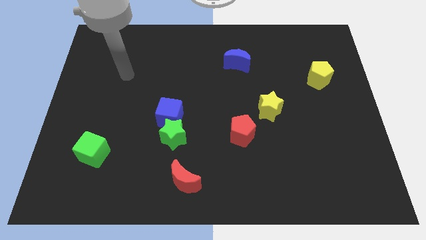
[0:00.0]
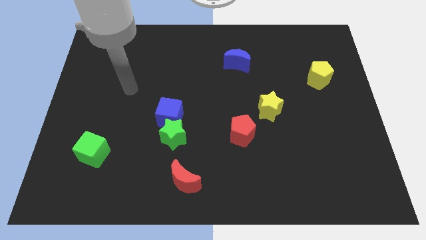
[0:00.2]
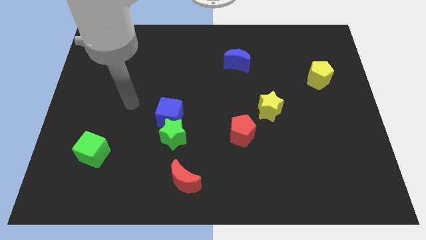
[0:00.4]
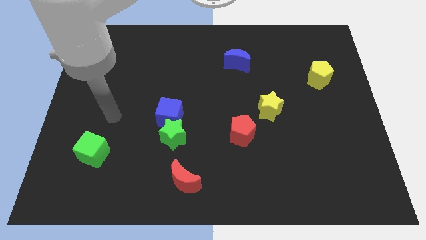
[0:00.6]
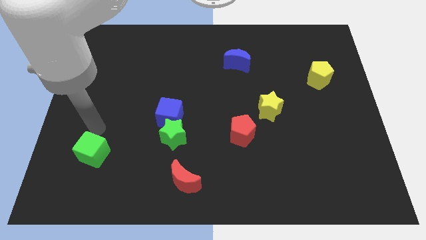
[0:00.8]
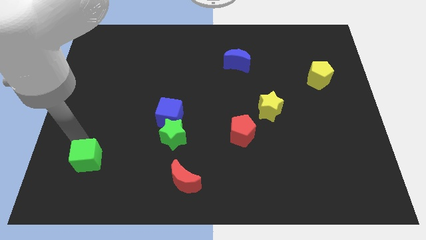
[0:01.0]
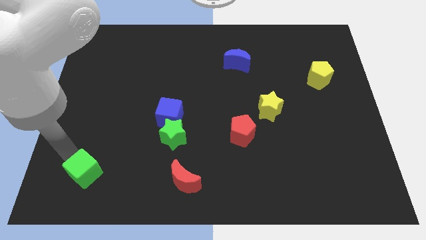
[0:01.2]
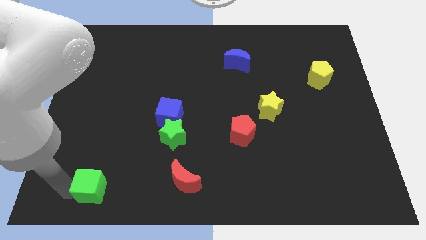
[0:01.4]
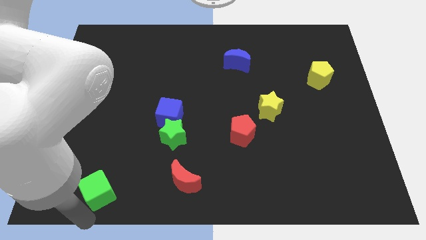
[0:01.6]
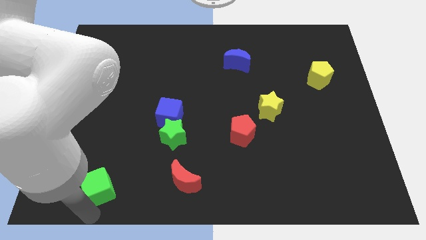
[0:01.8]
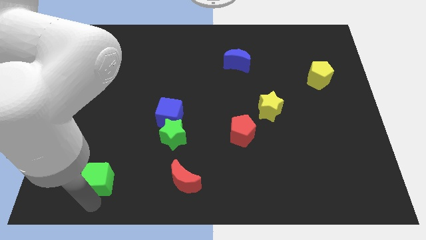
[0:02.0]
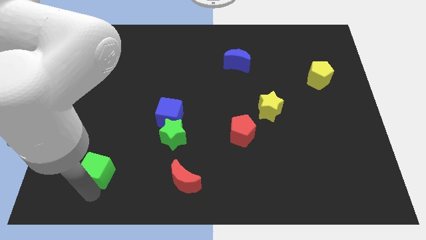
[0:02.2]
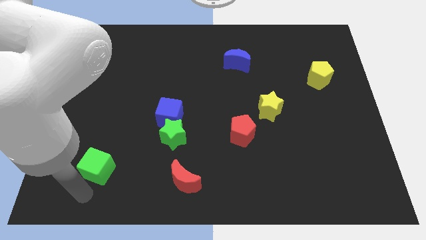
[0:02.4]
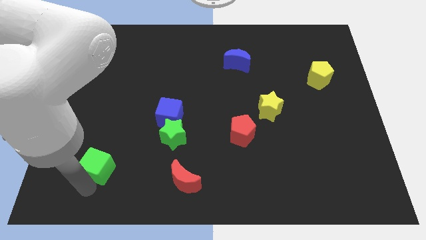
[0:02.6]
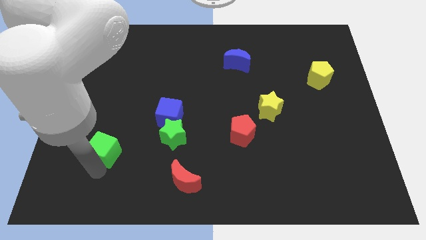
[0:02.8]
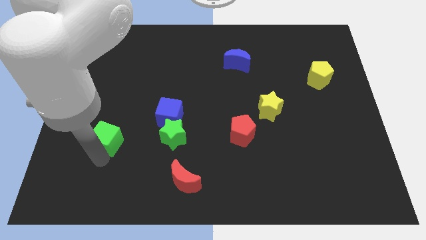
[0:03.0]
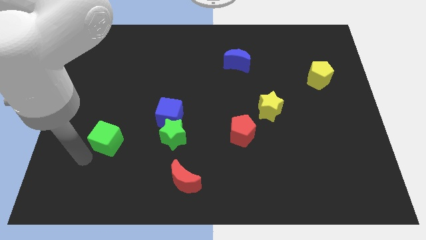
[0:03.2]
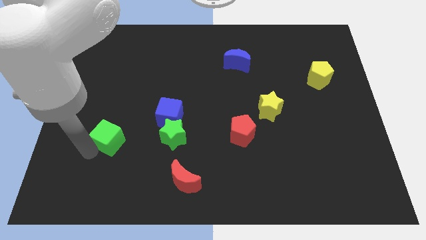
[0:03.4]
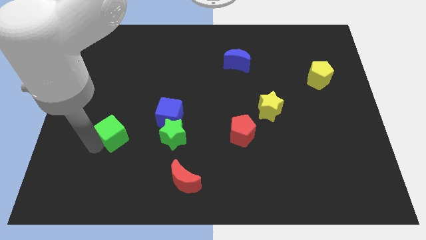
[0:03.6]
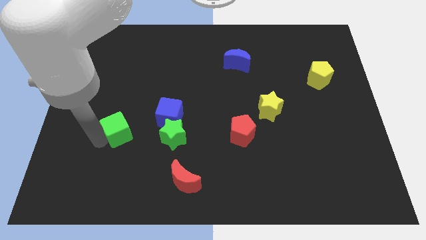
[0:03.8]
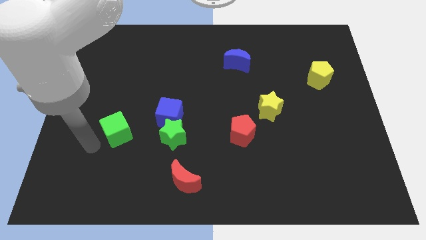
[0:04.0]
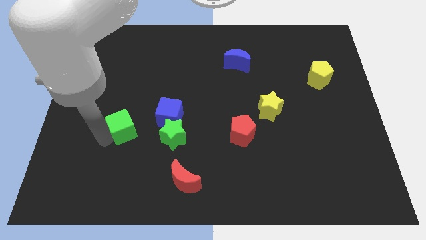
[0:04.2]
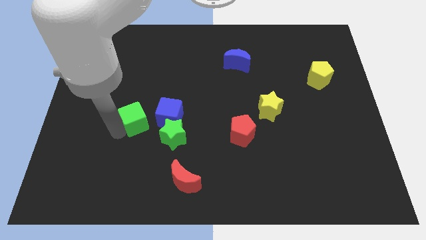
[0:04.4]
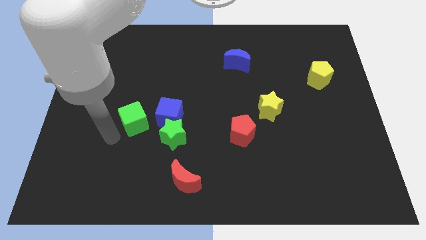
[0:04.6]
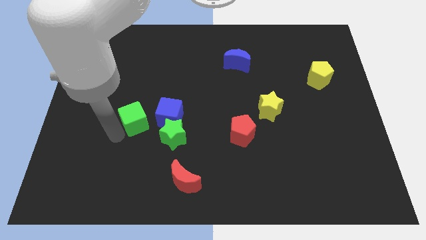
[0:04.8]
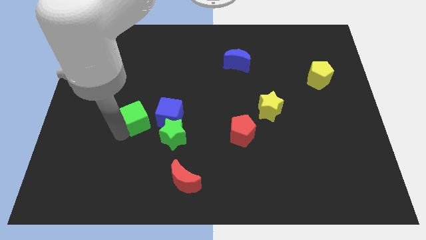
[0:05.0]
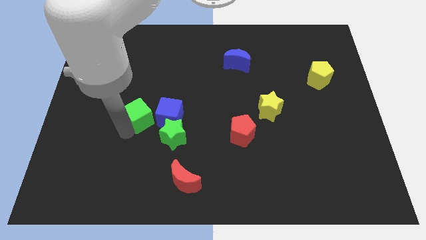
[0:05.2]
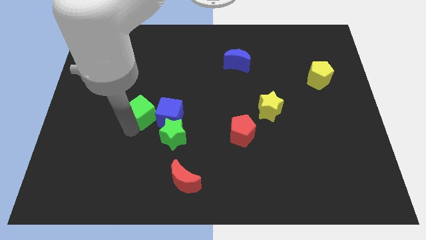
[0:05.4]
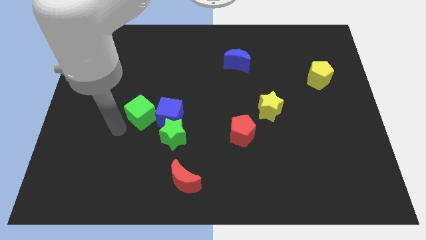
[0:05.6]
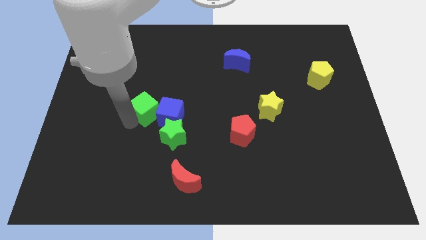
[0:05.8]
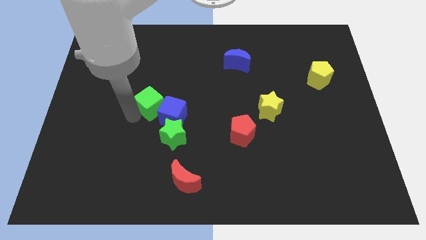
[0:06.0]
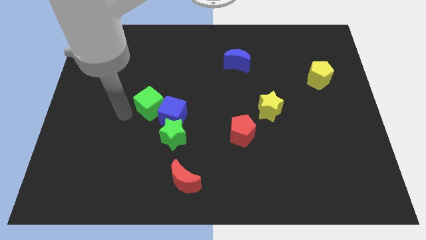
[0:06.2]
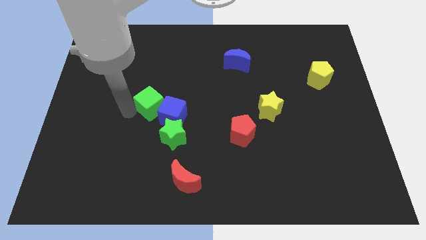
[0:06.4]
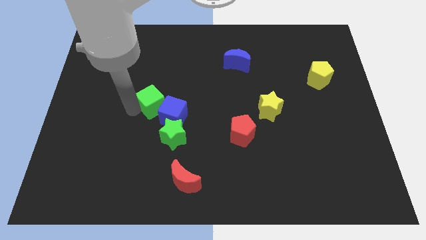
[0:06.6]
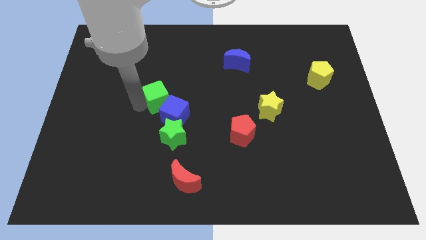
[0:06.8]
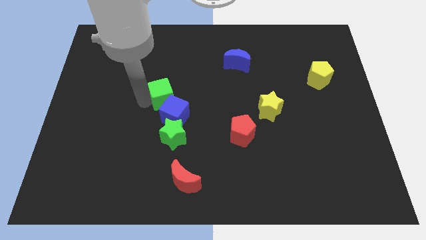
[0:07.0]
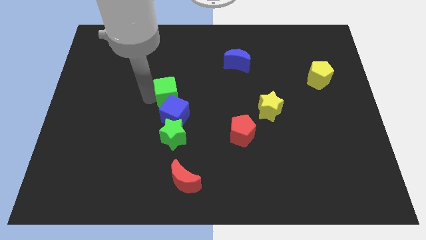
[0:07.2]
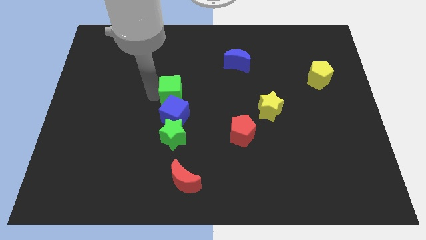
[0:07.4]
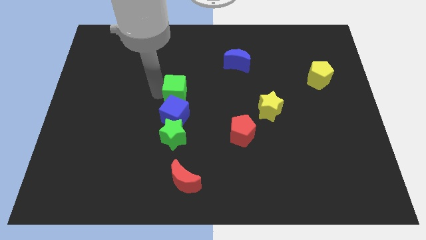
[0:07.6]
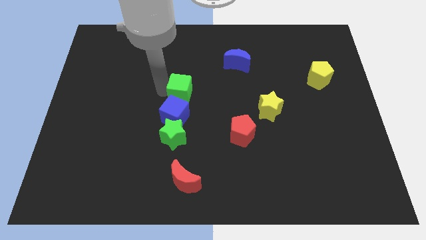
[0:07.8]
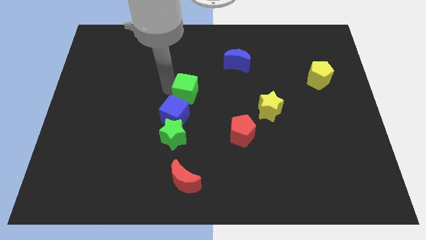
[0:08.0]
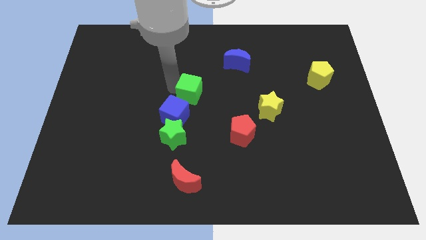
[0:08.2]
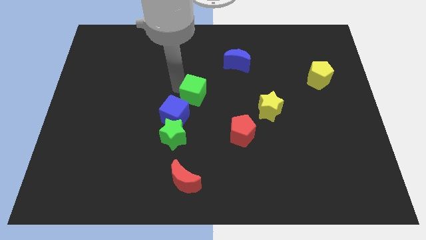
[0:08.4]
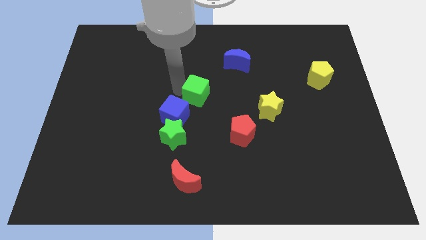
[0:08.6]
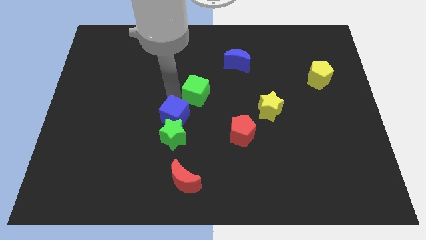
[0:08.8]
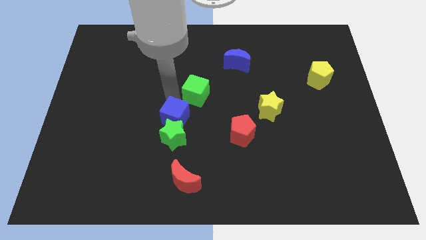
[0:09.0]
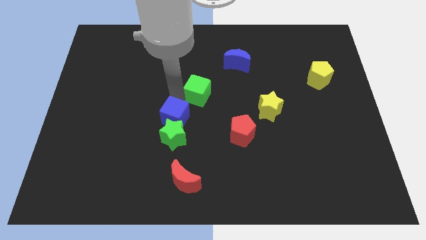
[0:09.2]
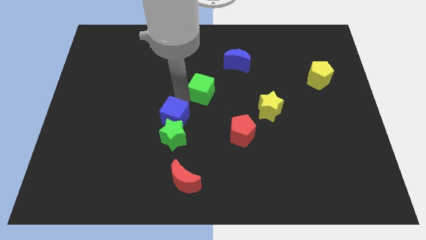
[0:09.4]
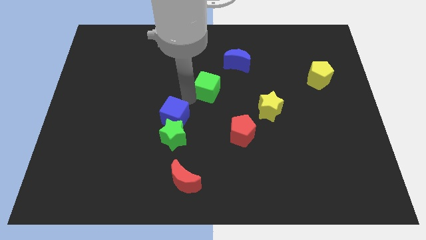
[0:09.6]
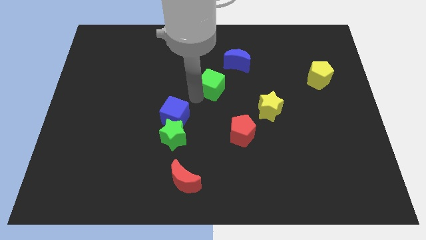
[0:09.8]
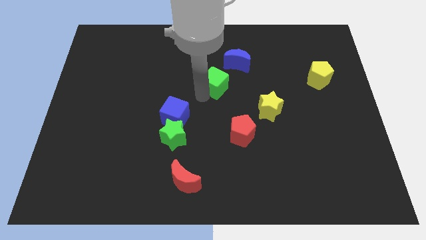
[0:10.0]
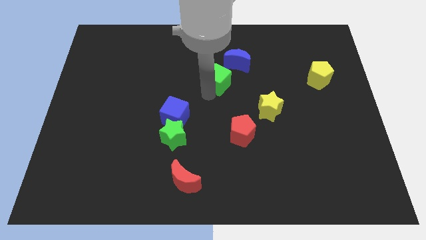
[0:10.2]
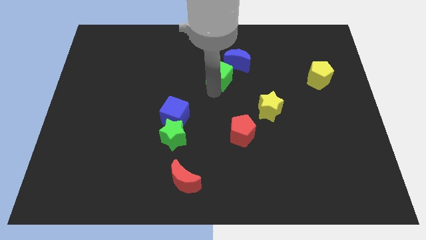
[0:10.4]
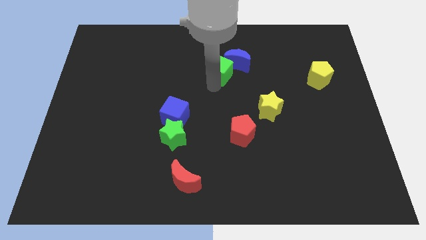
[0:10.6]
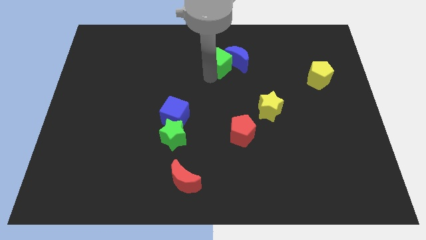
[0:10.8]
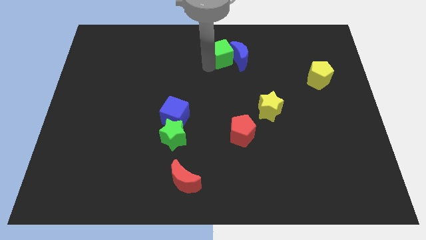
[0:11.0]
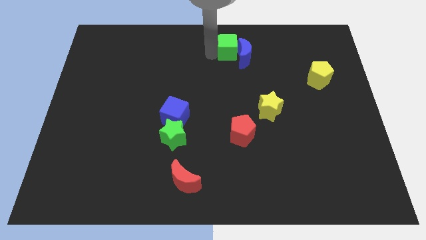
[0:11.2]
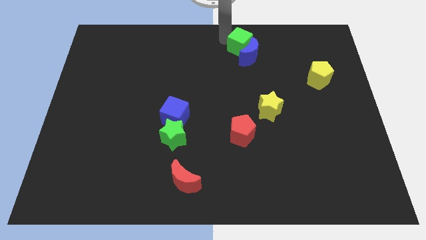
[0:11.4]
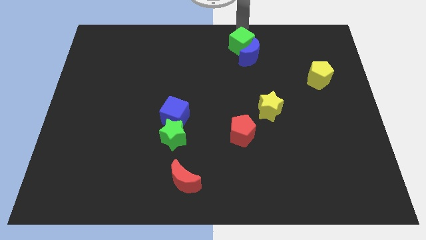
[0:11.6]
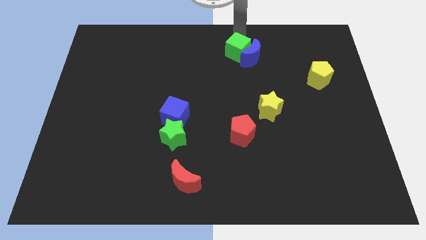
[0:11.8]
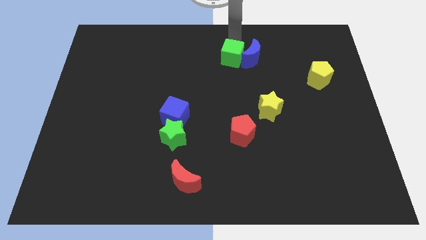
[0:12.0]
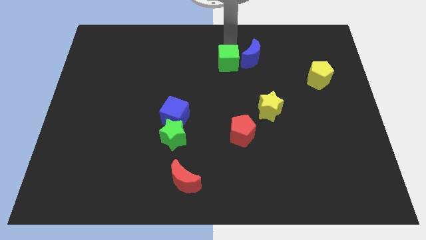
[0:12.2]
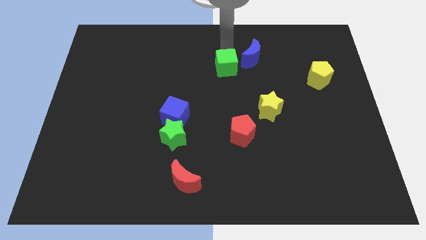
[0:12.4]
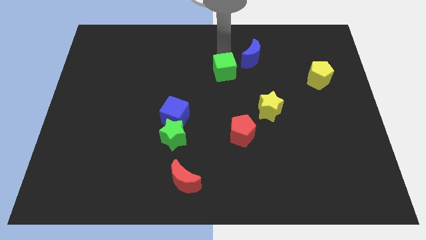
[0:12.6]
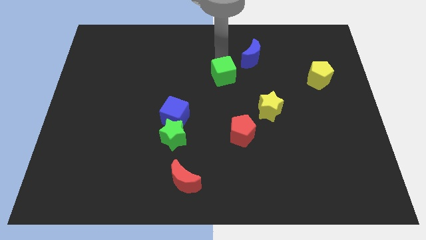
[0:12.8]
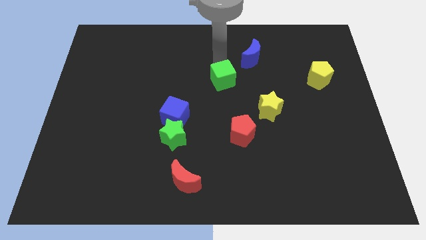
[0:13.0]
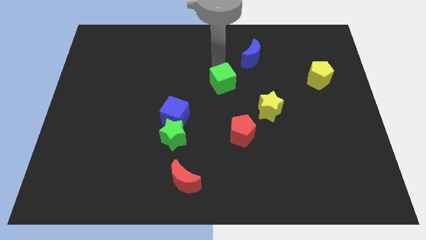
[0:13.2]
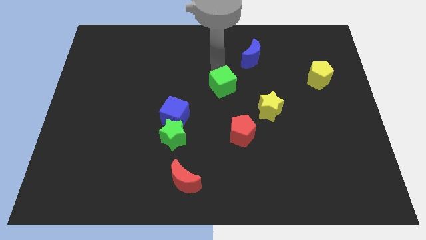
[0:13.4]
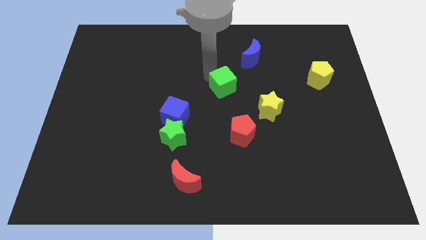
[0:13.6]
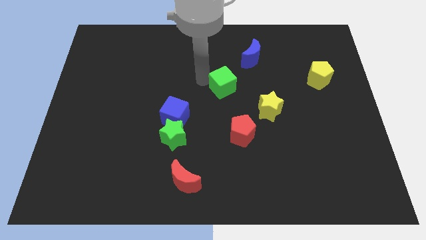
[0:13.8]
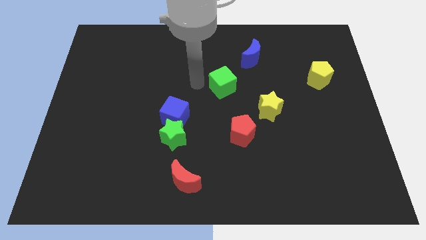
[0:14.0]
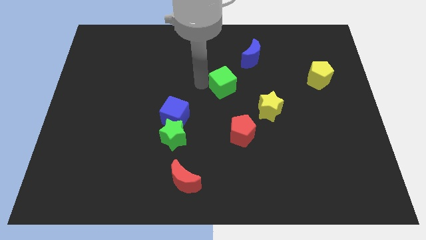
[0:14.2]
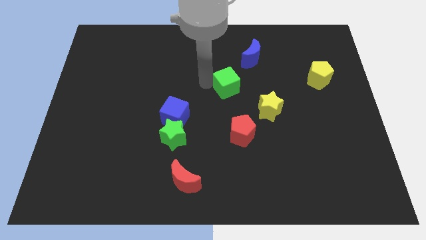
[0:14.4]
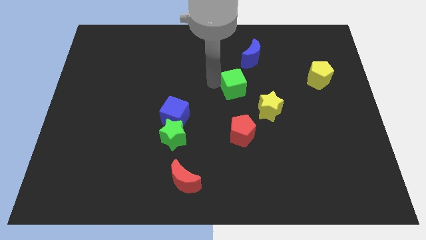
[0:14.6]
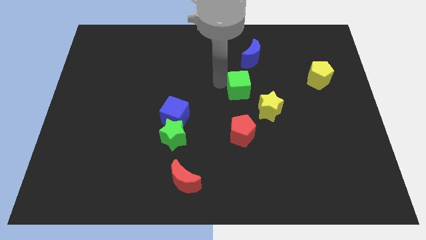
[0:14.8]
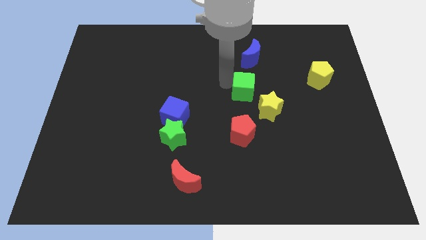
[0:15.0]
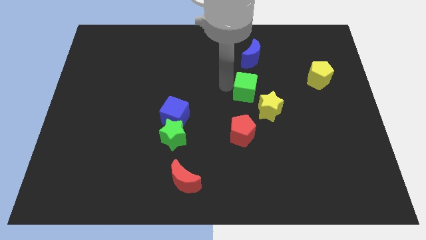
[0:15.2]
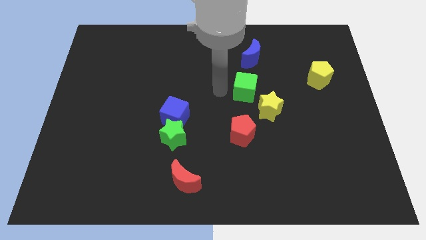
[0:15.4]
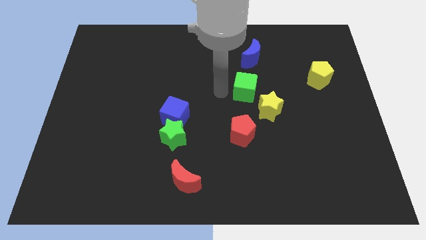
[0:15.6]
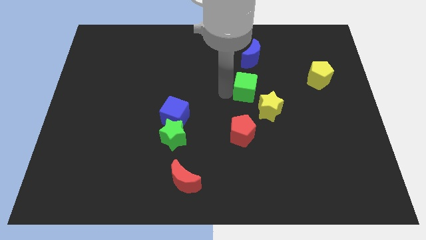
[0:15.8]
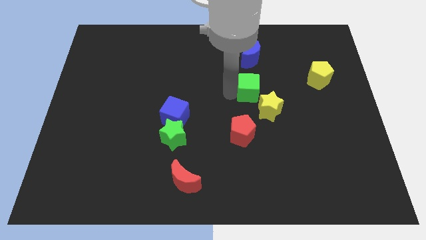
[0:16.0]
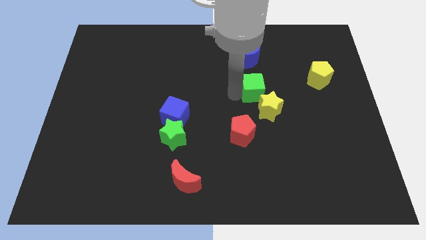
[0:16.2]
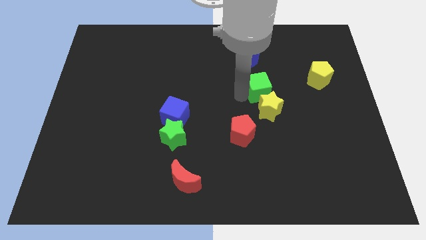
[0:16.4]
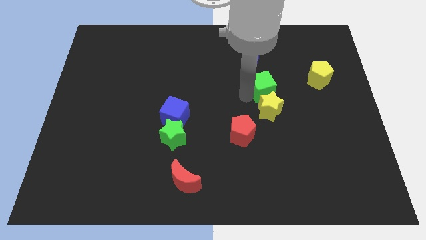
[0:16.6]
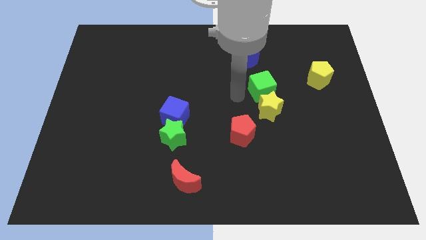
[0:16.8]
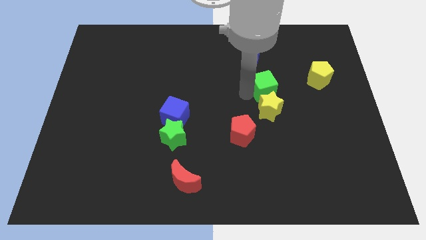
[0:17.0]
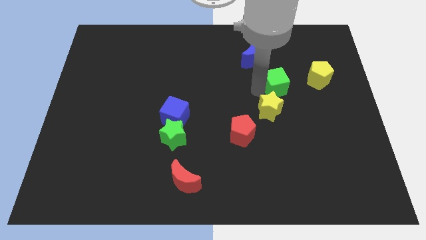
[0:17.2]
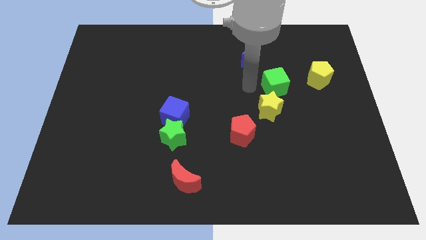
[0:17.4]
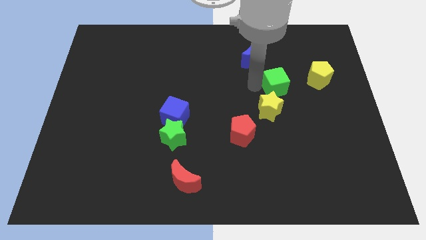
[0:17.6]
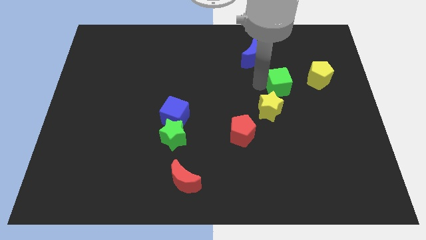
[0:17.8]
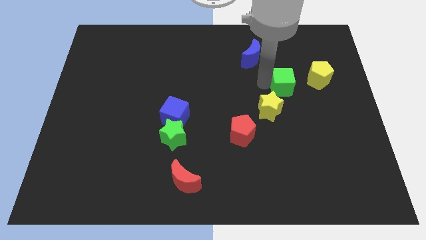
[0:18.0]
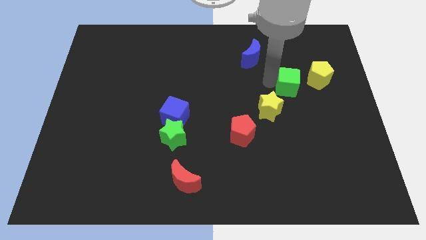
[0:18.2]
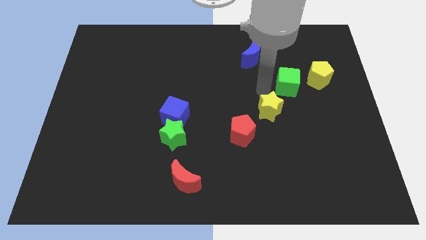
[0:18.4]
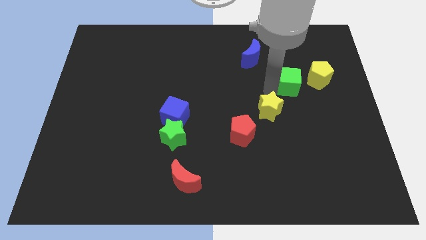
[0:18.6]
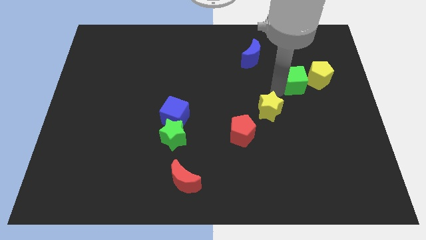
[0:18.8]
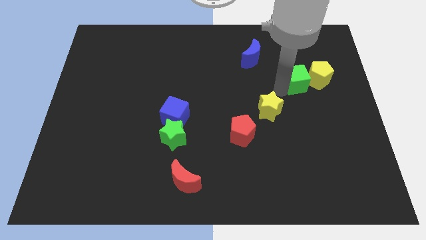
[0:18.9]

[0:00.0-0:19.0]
put the green cube towards the yellow pentagon
